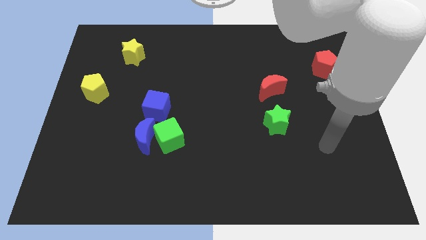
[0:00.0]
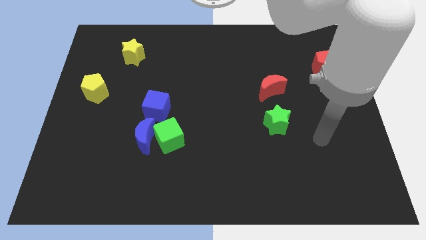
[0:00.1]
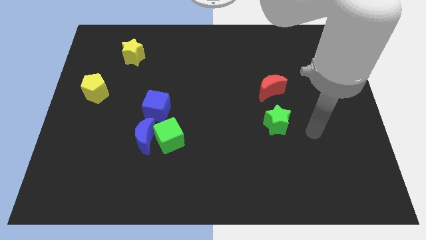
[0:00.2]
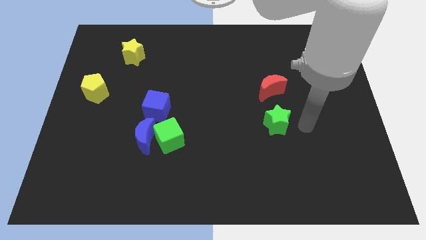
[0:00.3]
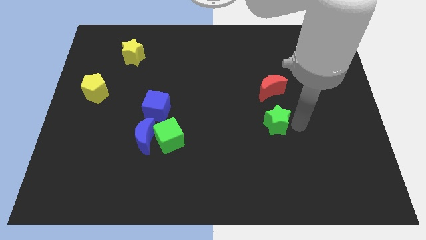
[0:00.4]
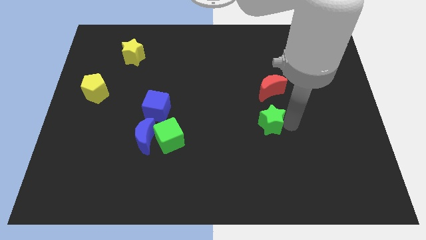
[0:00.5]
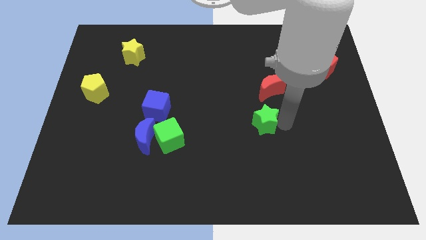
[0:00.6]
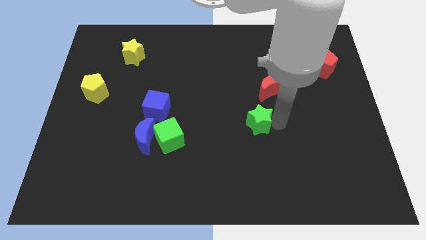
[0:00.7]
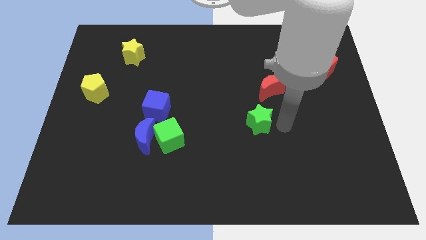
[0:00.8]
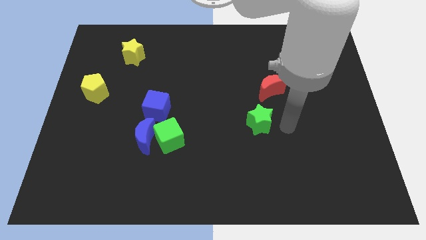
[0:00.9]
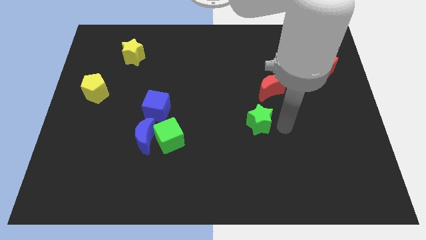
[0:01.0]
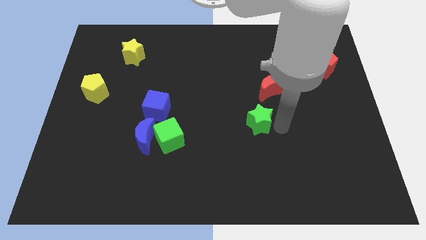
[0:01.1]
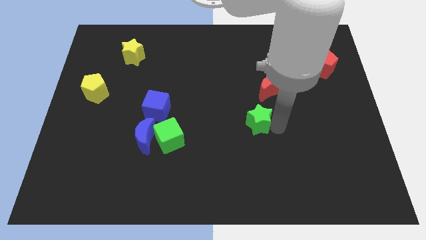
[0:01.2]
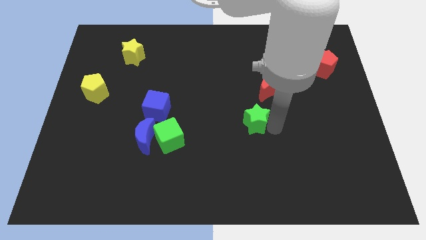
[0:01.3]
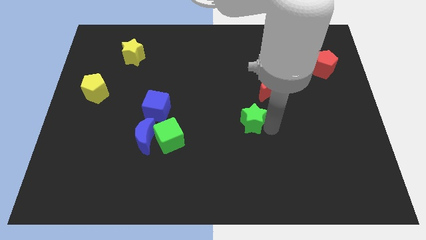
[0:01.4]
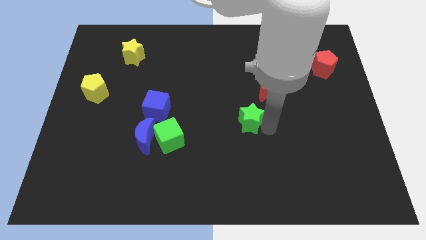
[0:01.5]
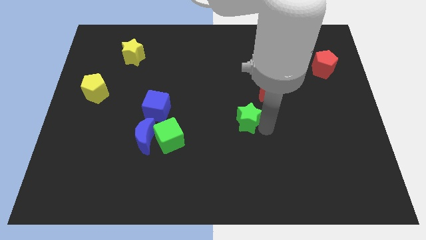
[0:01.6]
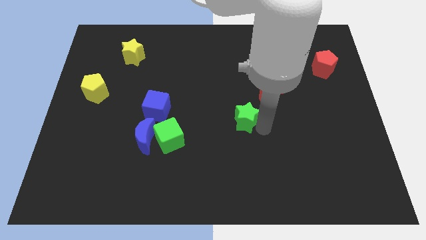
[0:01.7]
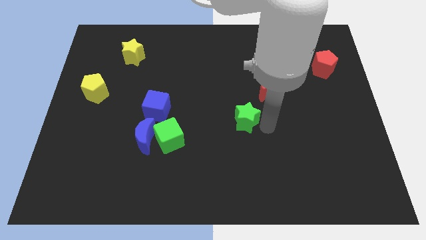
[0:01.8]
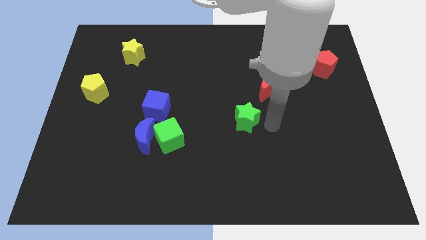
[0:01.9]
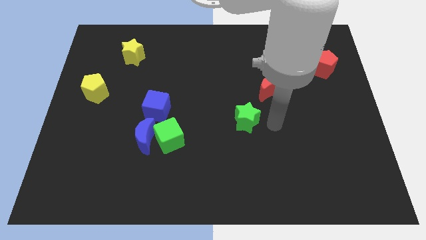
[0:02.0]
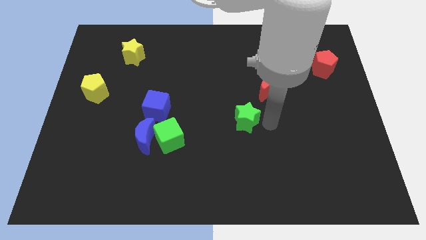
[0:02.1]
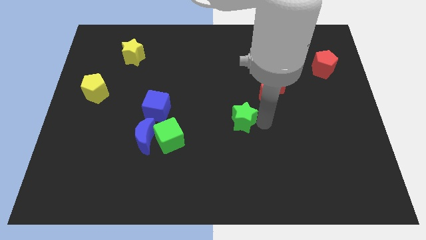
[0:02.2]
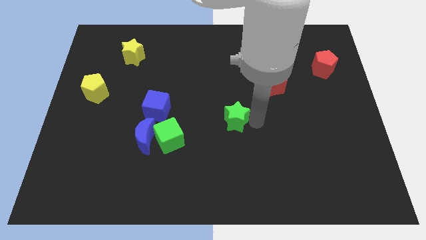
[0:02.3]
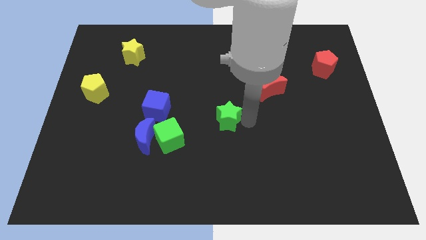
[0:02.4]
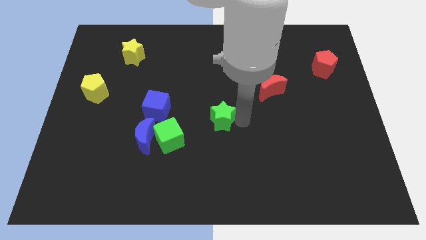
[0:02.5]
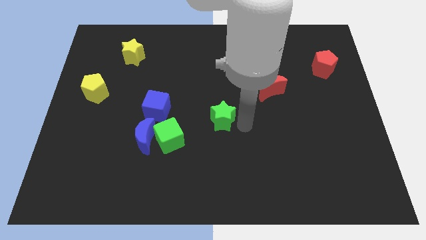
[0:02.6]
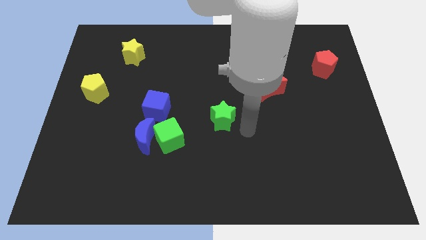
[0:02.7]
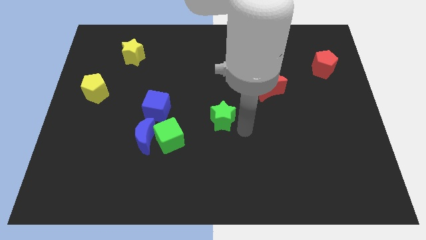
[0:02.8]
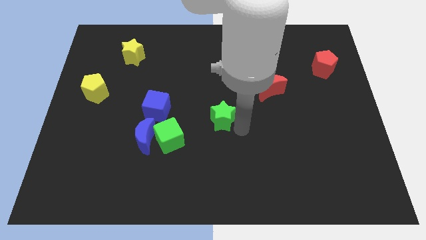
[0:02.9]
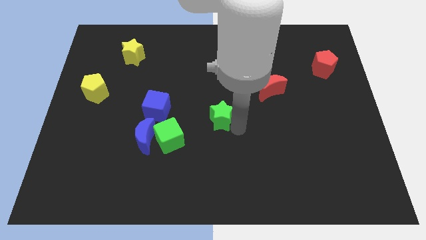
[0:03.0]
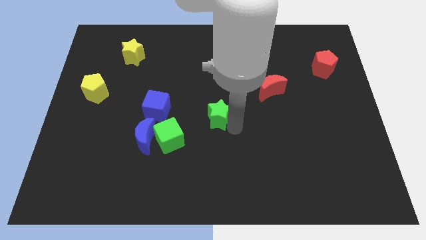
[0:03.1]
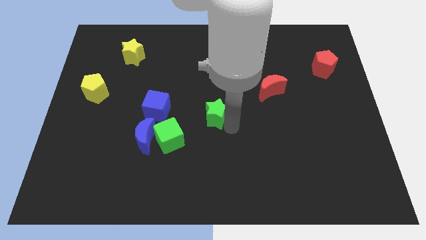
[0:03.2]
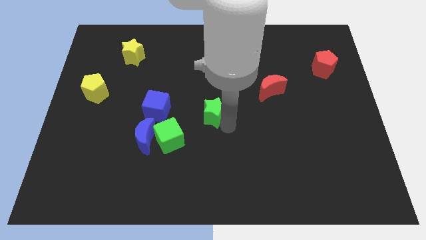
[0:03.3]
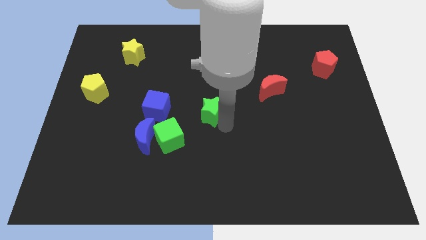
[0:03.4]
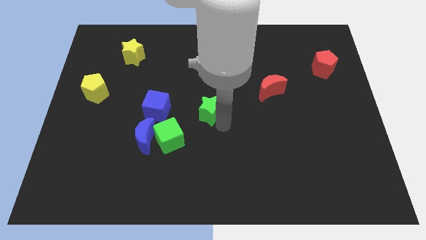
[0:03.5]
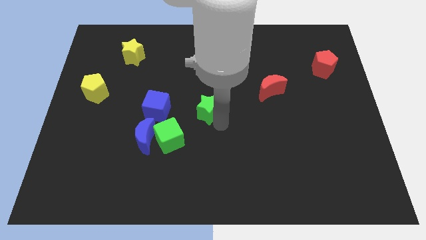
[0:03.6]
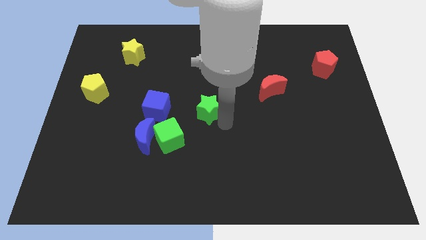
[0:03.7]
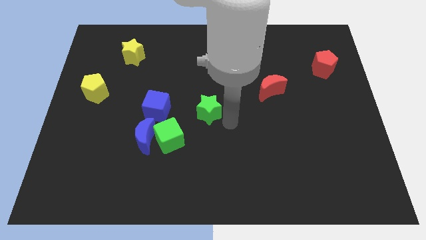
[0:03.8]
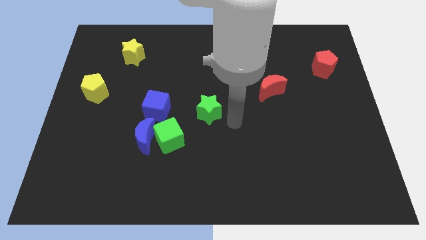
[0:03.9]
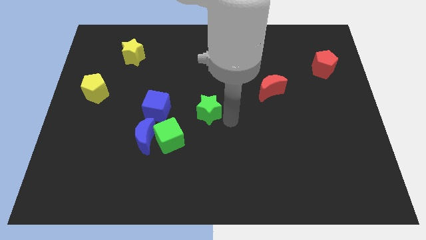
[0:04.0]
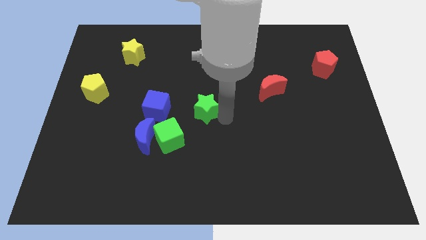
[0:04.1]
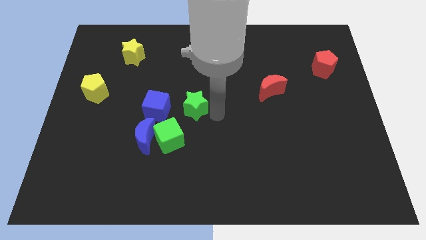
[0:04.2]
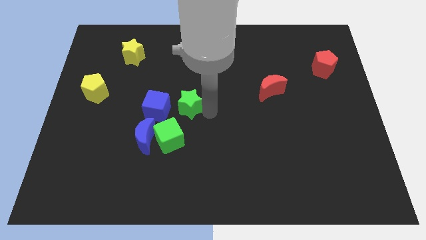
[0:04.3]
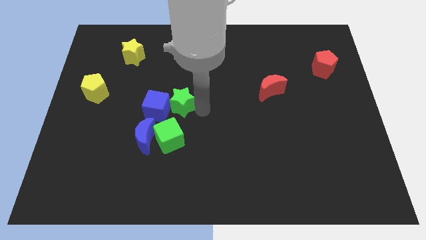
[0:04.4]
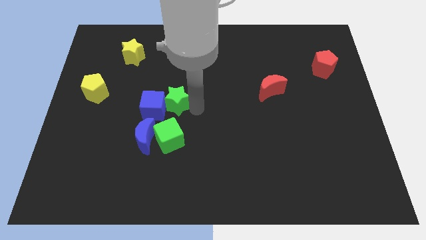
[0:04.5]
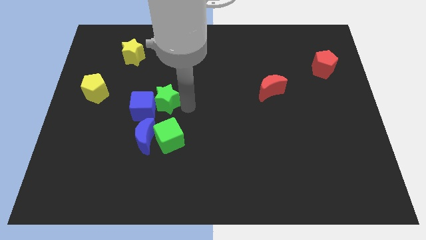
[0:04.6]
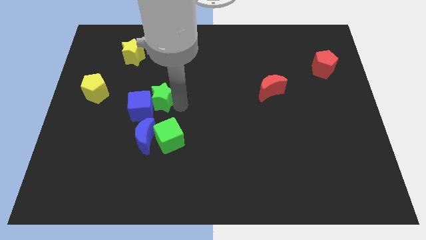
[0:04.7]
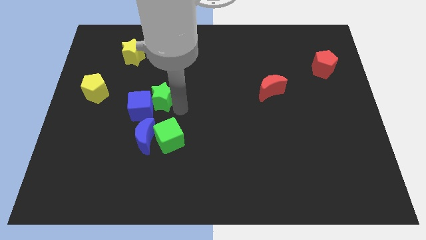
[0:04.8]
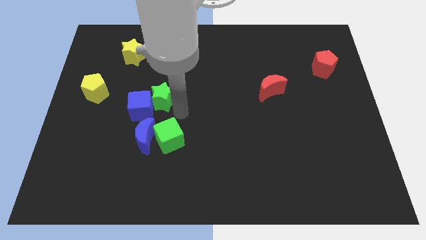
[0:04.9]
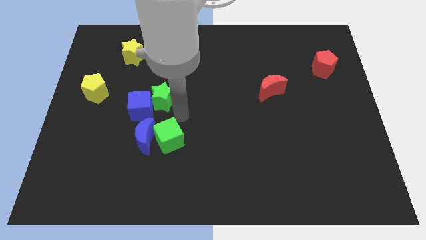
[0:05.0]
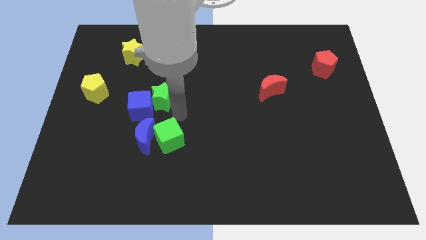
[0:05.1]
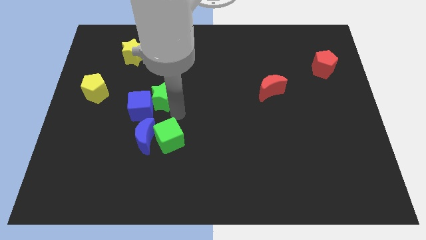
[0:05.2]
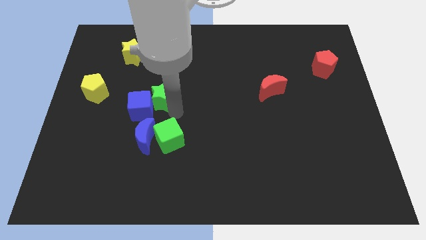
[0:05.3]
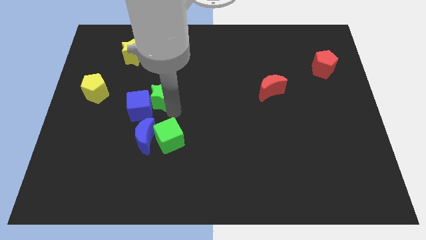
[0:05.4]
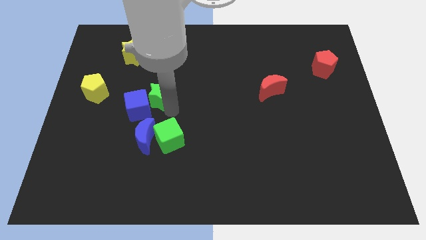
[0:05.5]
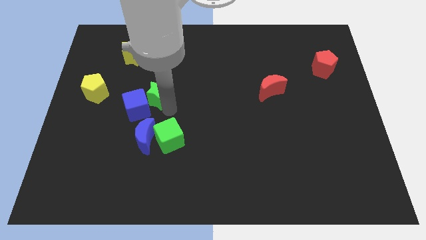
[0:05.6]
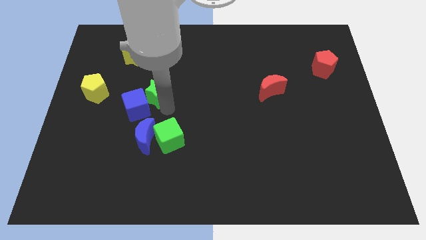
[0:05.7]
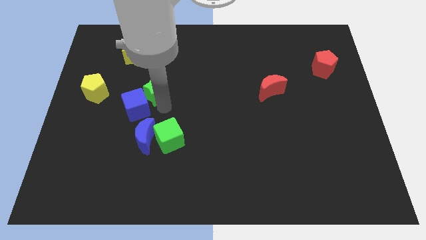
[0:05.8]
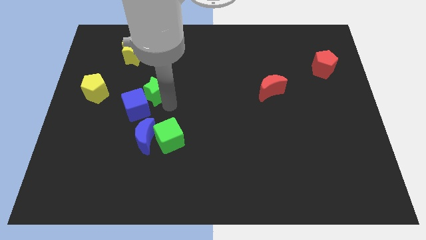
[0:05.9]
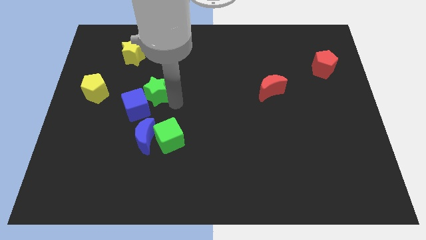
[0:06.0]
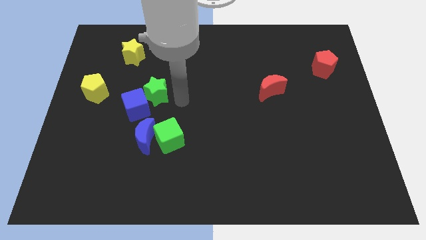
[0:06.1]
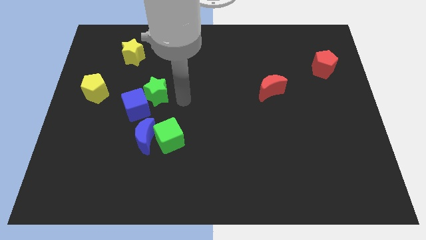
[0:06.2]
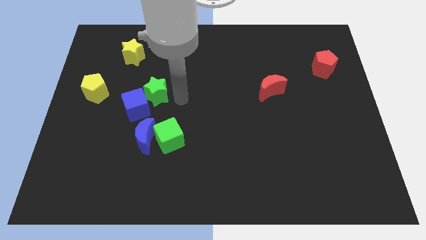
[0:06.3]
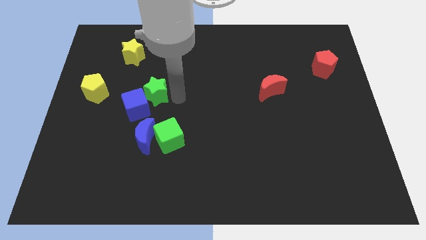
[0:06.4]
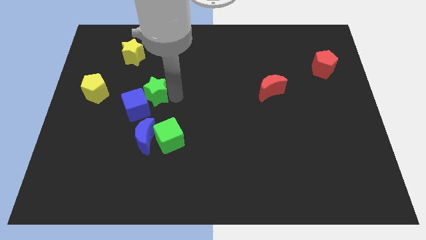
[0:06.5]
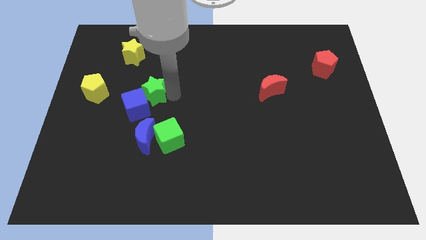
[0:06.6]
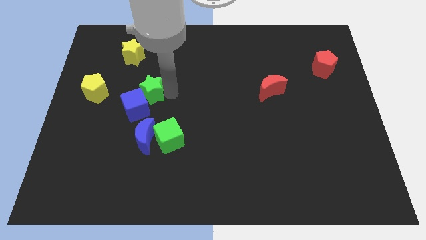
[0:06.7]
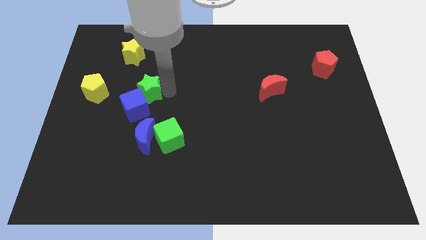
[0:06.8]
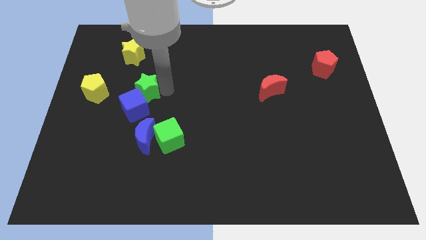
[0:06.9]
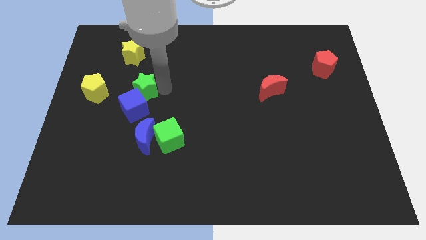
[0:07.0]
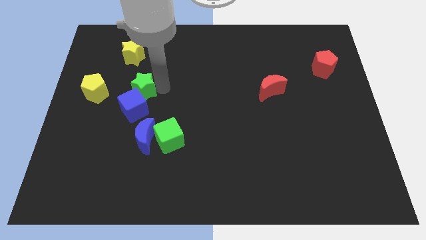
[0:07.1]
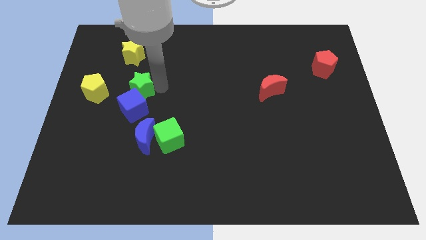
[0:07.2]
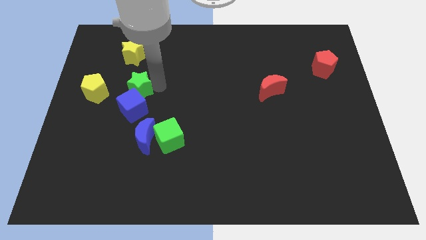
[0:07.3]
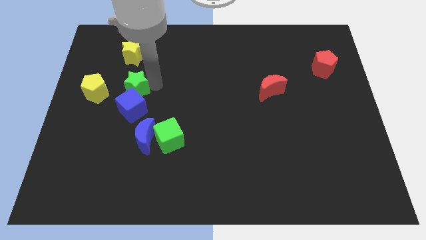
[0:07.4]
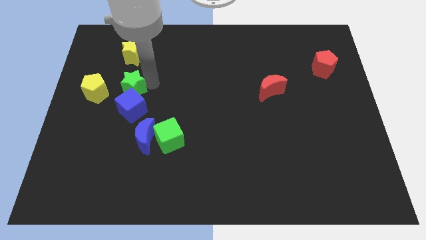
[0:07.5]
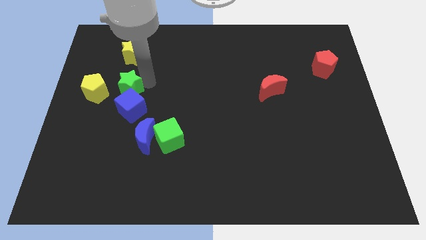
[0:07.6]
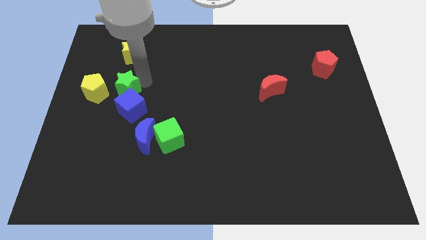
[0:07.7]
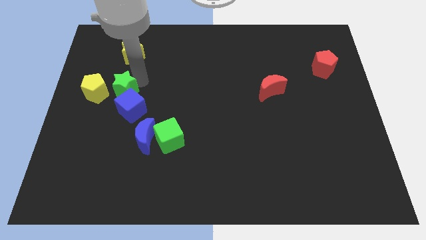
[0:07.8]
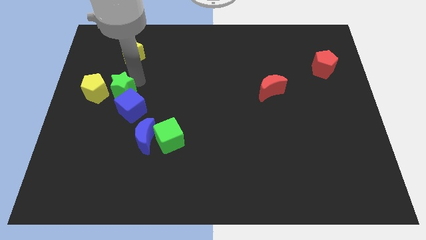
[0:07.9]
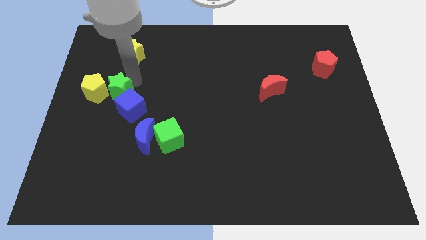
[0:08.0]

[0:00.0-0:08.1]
slide the green star to the yellow pentagon
